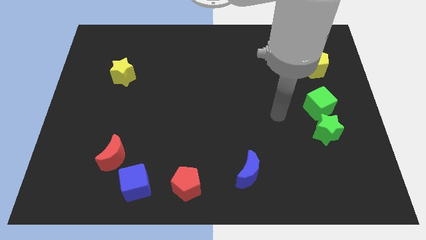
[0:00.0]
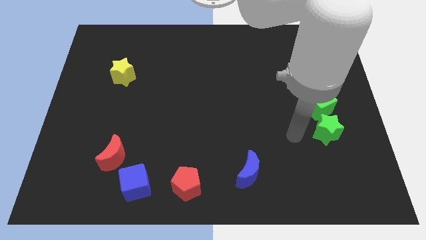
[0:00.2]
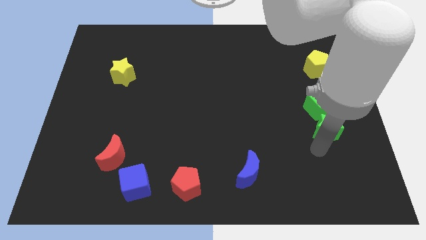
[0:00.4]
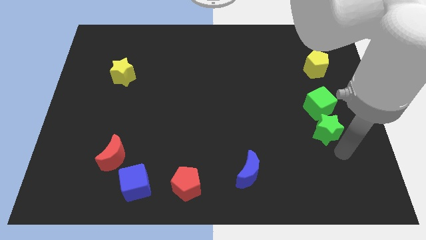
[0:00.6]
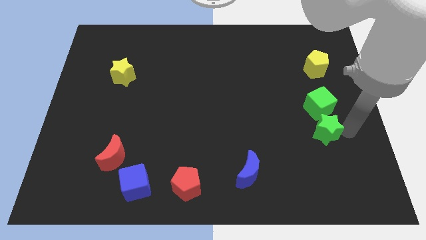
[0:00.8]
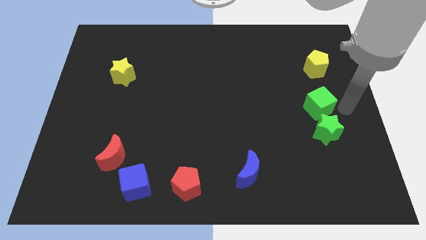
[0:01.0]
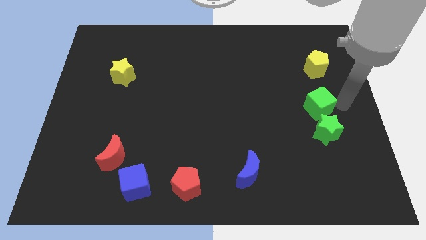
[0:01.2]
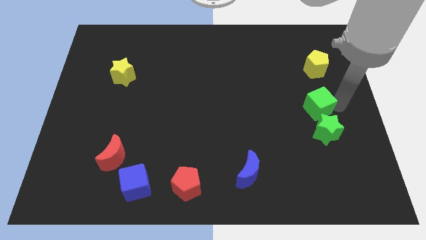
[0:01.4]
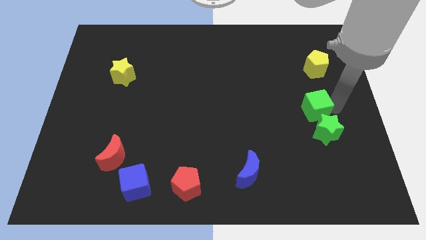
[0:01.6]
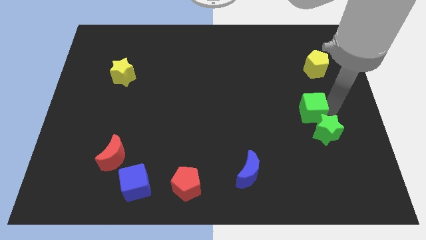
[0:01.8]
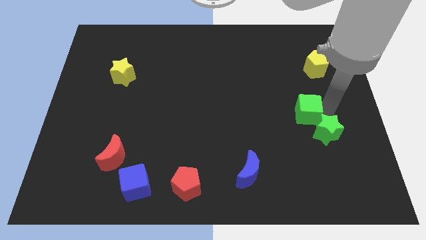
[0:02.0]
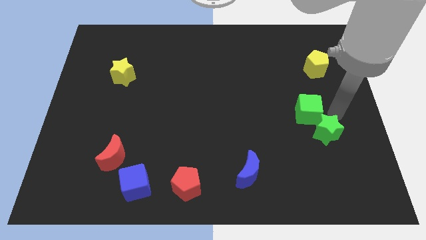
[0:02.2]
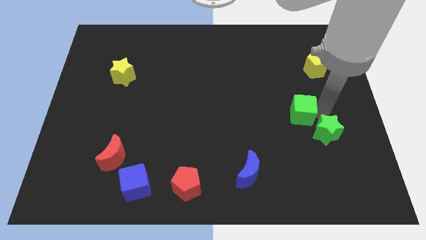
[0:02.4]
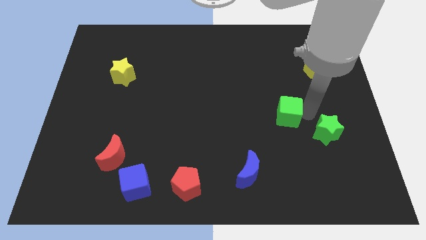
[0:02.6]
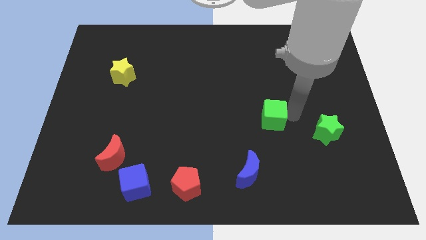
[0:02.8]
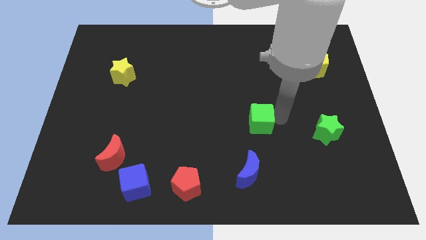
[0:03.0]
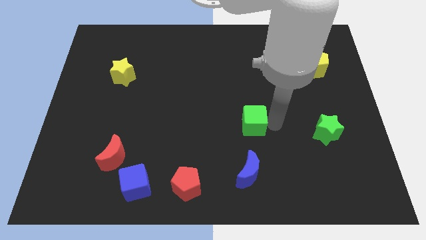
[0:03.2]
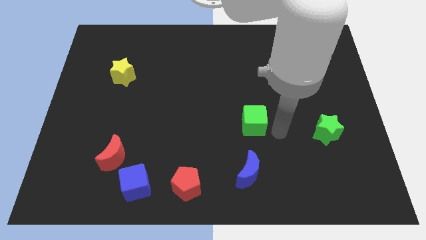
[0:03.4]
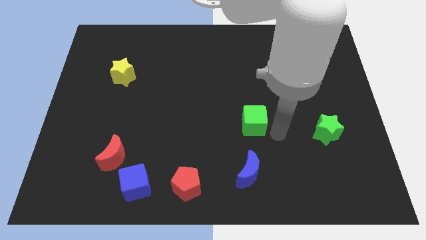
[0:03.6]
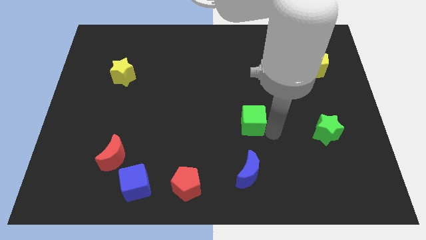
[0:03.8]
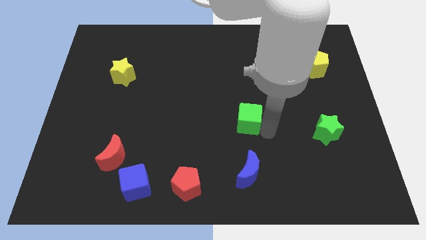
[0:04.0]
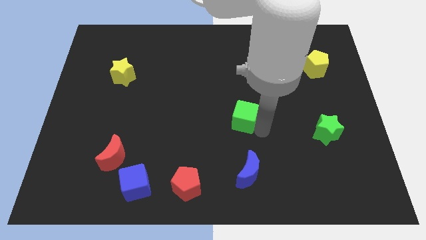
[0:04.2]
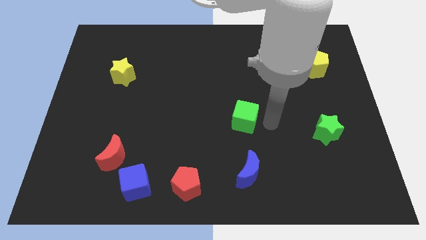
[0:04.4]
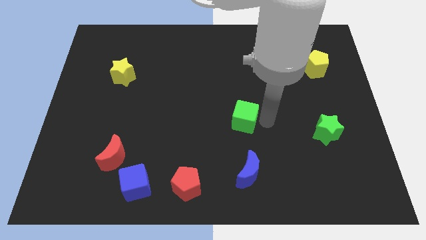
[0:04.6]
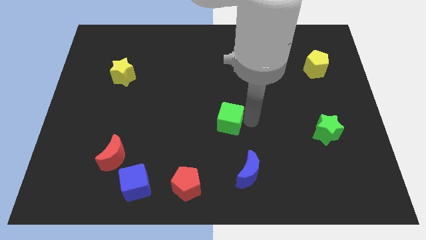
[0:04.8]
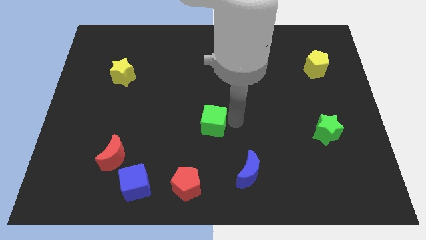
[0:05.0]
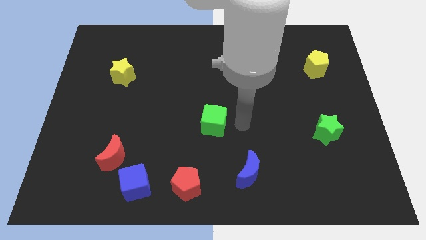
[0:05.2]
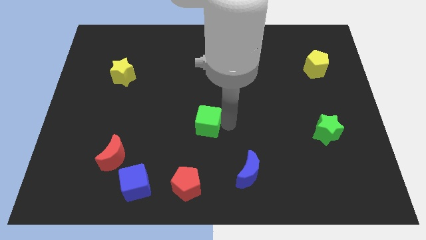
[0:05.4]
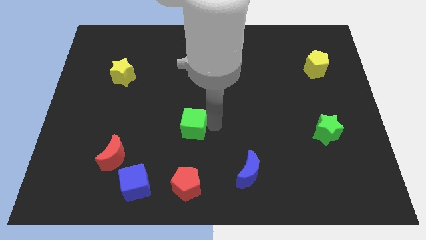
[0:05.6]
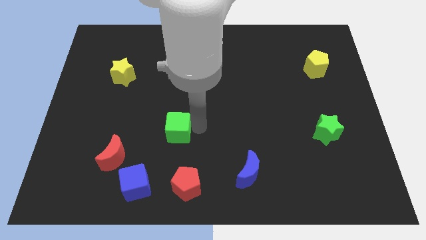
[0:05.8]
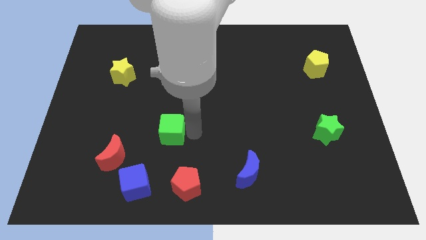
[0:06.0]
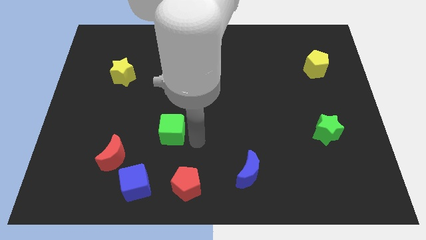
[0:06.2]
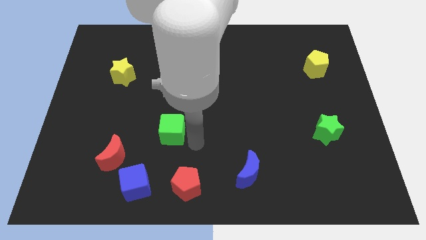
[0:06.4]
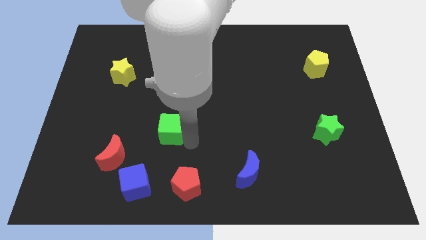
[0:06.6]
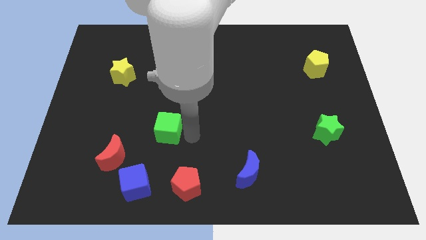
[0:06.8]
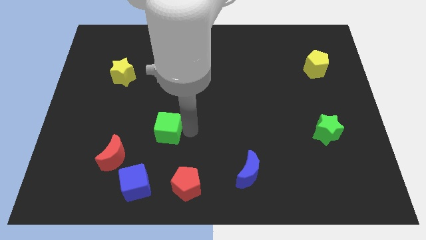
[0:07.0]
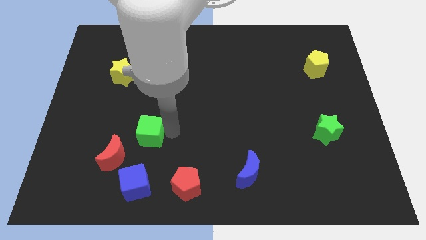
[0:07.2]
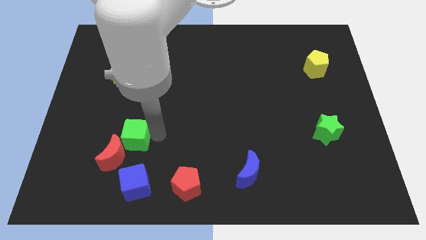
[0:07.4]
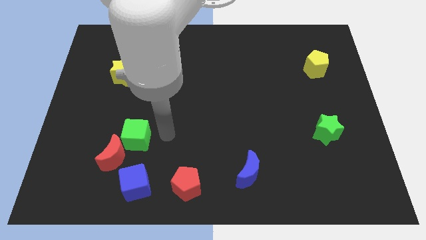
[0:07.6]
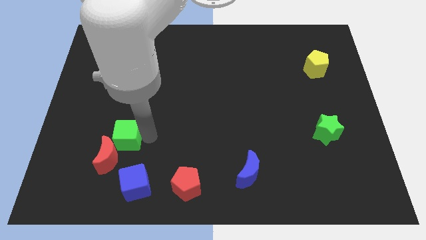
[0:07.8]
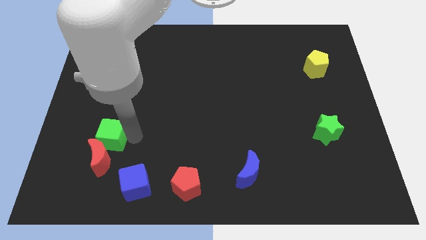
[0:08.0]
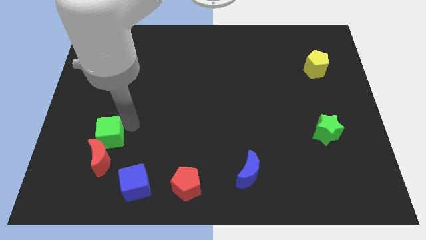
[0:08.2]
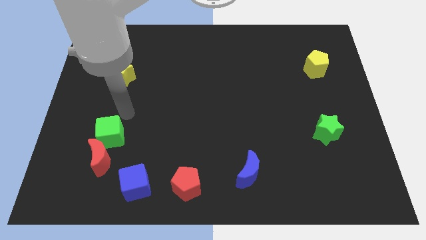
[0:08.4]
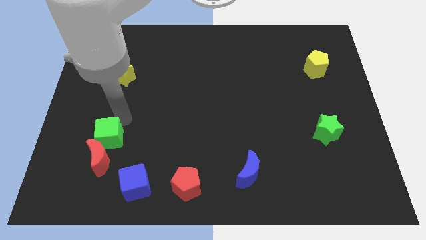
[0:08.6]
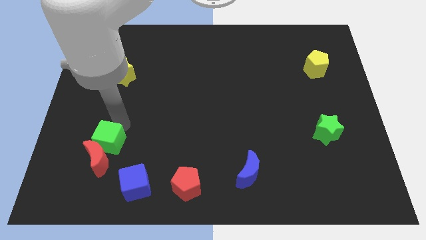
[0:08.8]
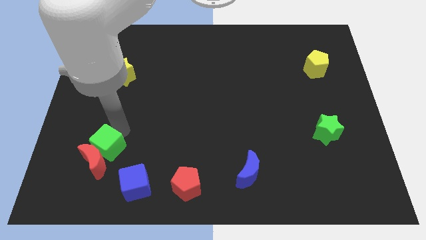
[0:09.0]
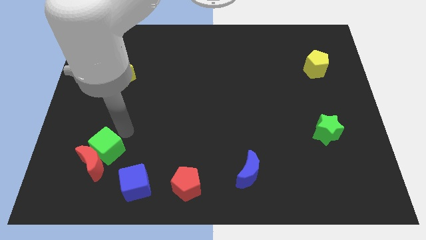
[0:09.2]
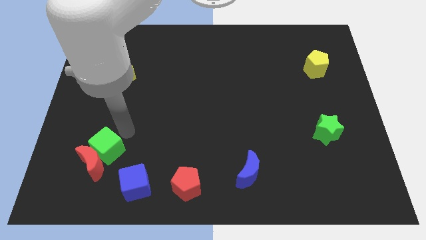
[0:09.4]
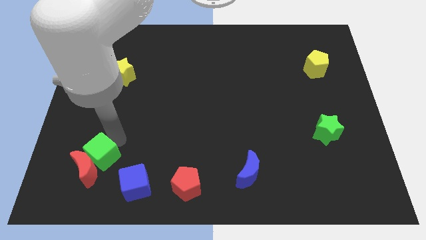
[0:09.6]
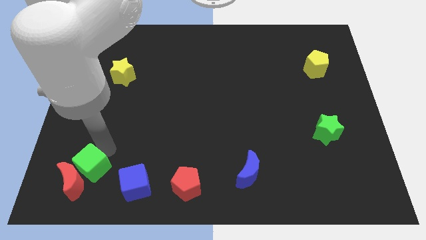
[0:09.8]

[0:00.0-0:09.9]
push the green cube to the left side of the blue cube

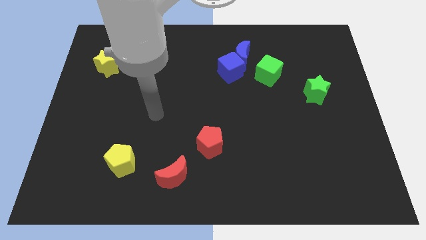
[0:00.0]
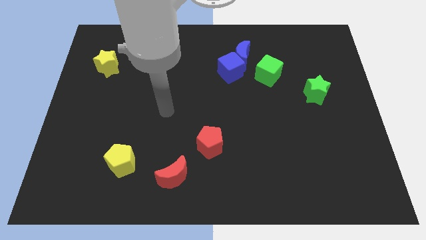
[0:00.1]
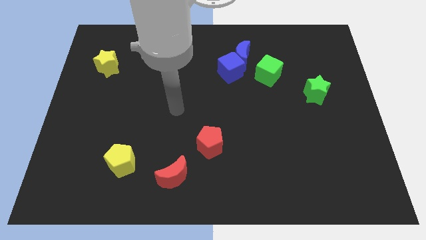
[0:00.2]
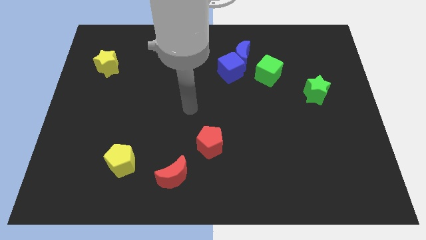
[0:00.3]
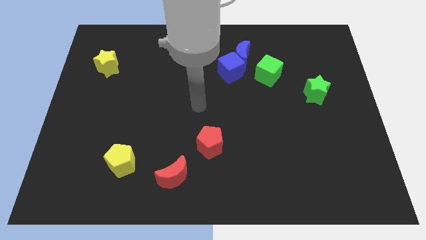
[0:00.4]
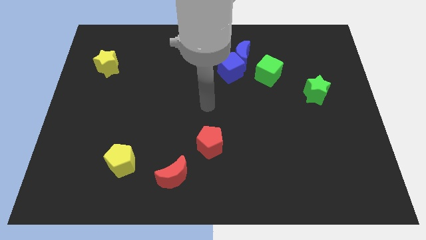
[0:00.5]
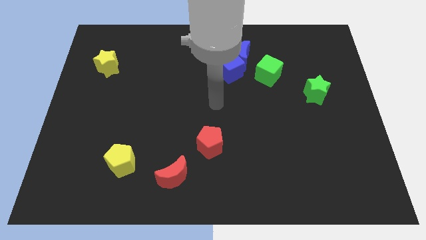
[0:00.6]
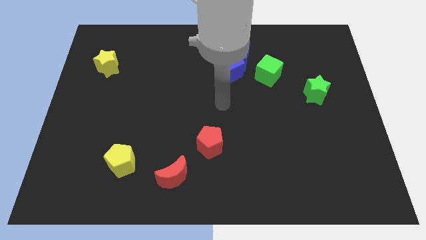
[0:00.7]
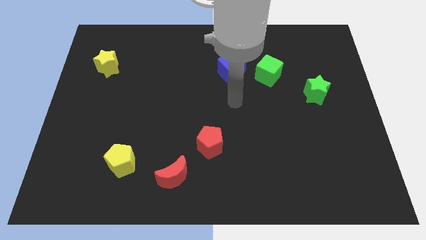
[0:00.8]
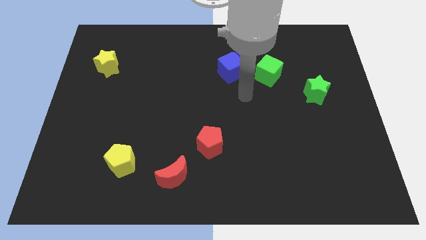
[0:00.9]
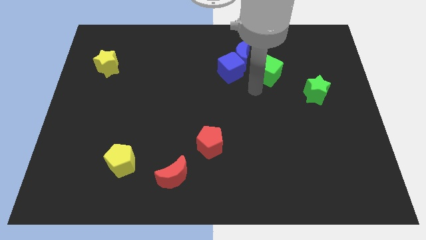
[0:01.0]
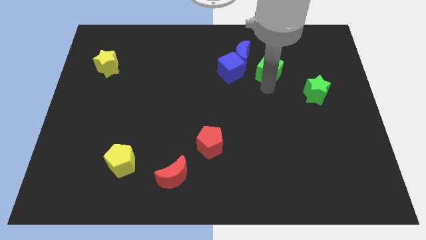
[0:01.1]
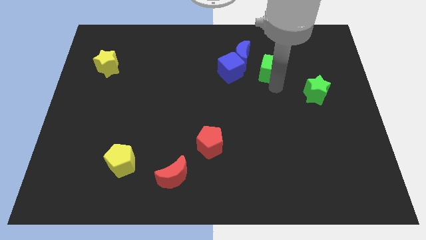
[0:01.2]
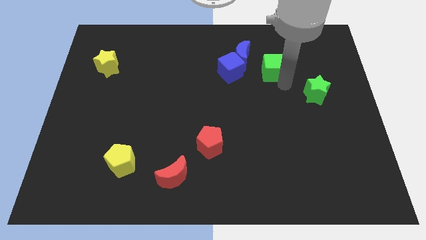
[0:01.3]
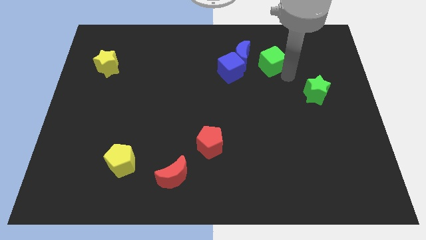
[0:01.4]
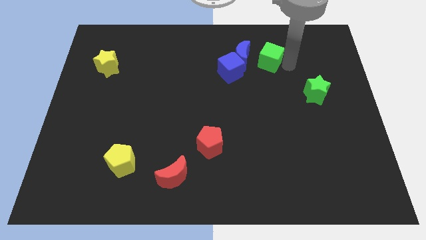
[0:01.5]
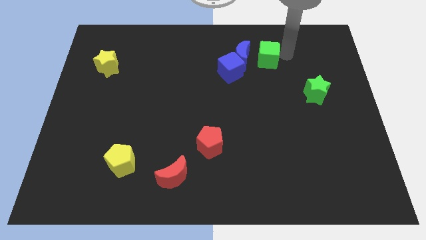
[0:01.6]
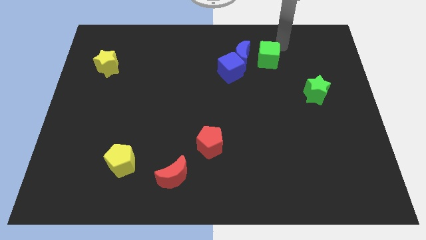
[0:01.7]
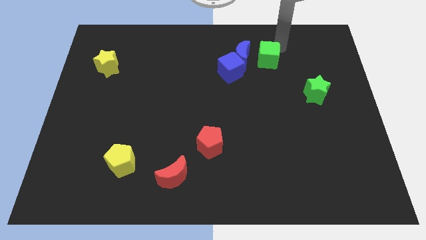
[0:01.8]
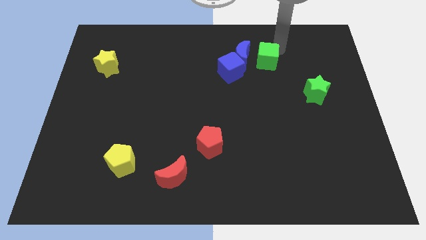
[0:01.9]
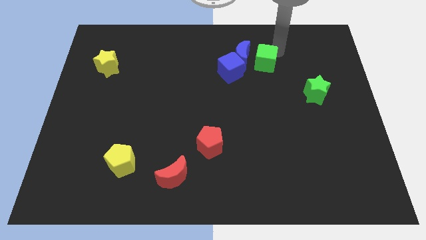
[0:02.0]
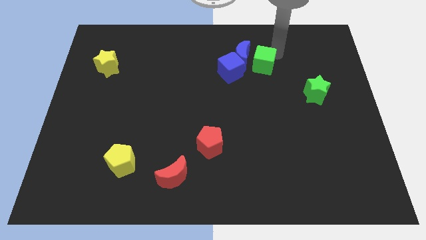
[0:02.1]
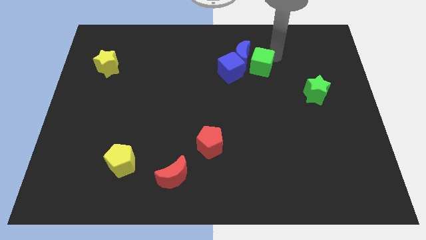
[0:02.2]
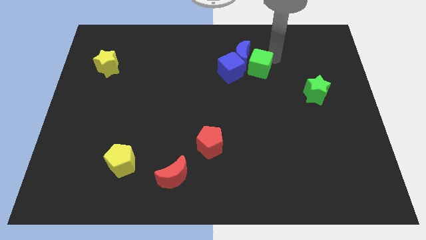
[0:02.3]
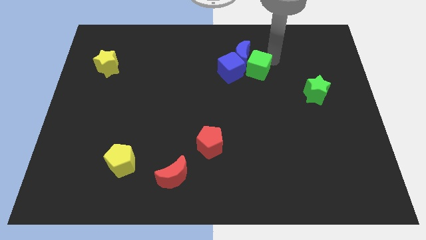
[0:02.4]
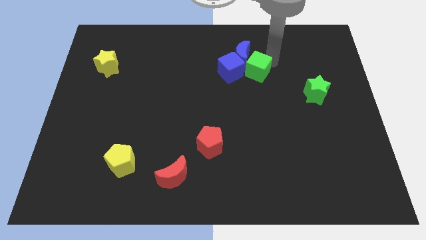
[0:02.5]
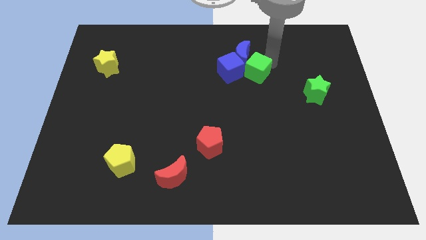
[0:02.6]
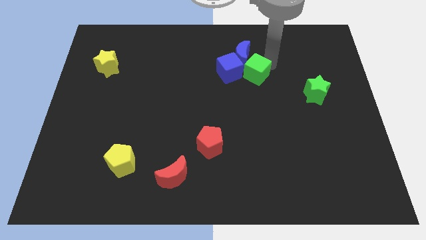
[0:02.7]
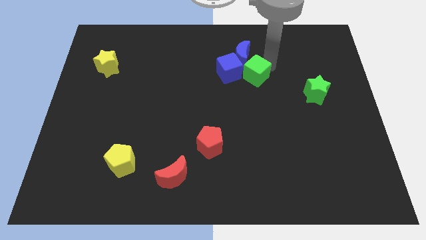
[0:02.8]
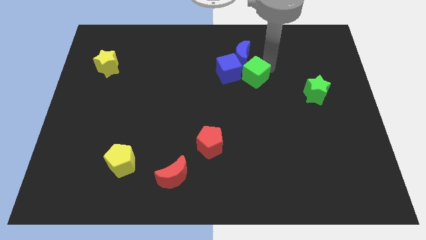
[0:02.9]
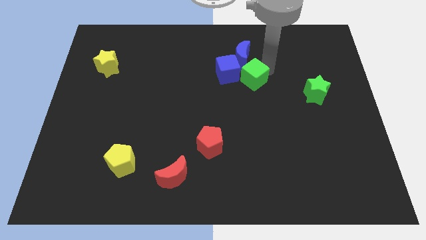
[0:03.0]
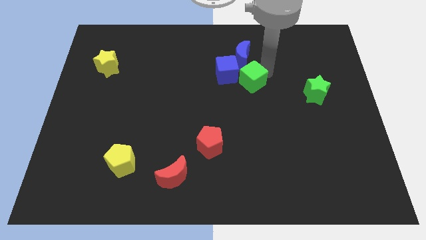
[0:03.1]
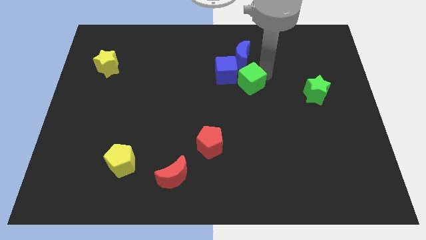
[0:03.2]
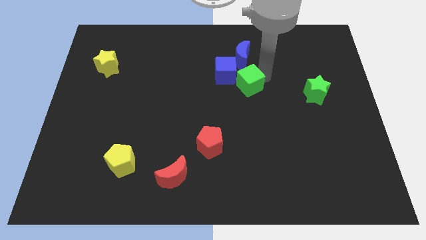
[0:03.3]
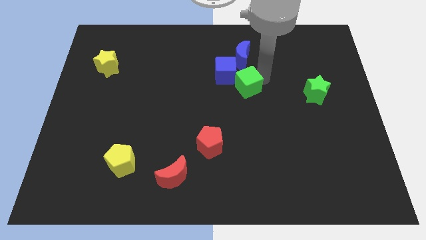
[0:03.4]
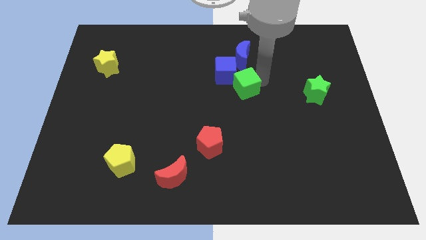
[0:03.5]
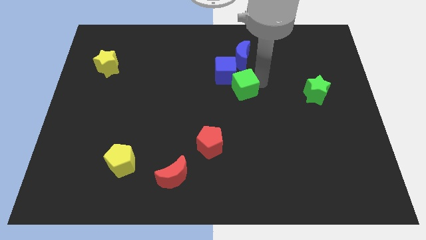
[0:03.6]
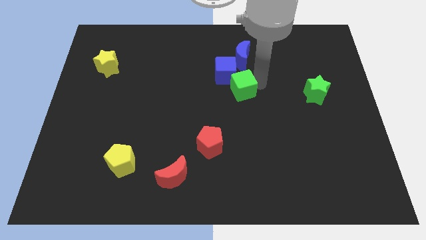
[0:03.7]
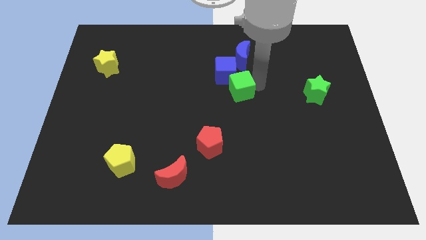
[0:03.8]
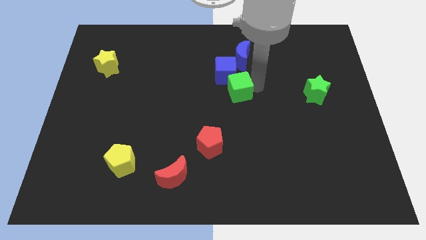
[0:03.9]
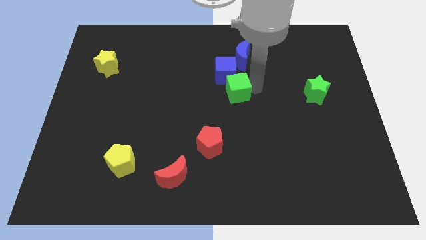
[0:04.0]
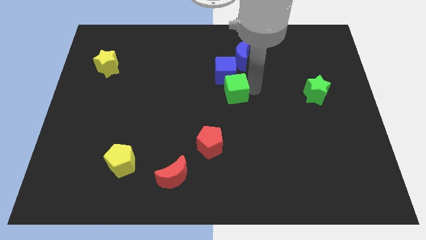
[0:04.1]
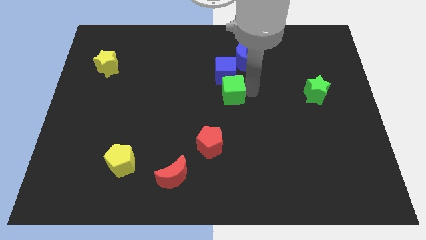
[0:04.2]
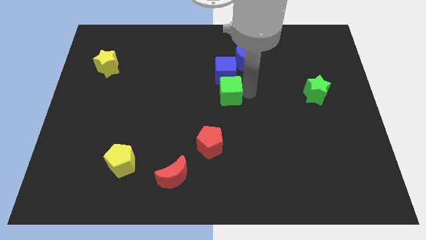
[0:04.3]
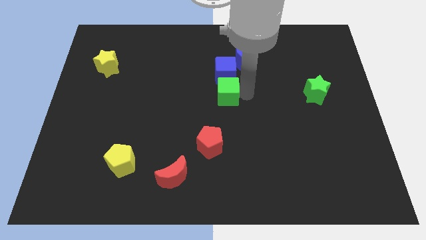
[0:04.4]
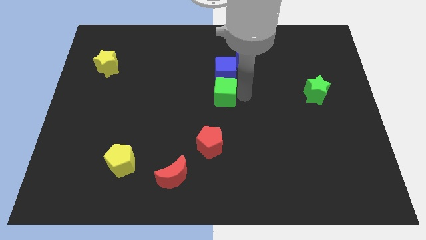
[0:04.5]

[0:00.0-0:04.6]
put the green cube diagonally down and to the left of the blue cube
